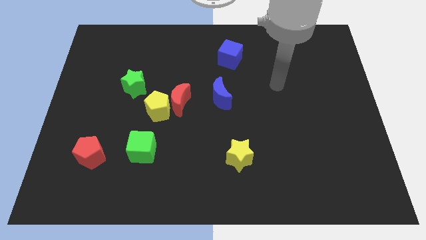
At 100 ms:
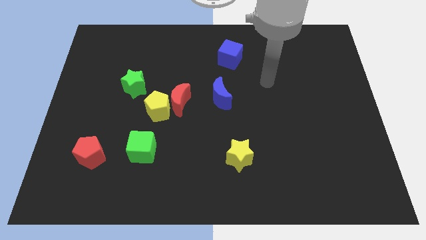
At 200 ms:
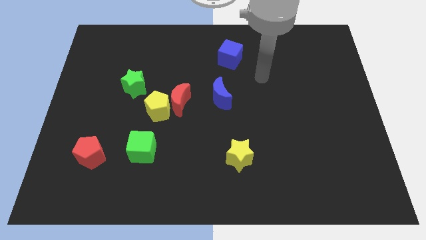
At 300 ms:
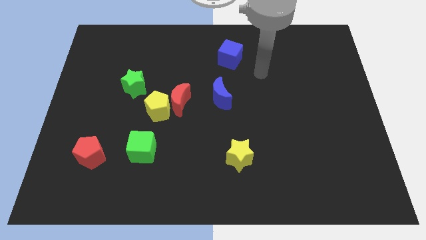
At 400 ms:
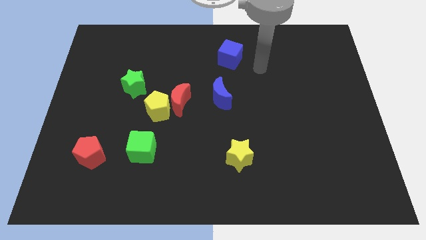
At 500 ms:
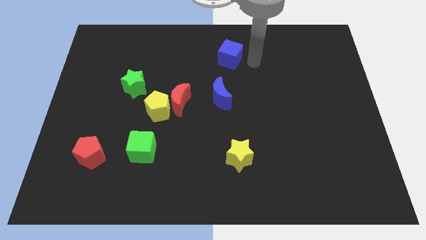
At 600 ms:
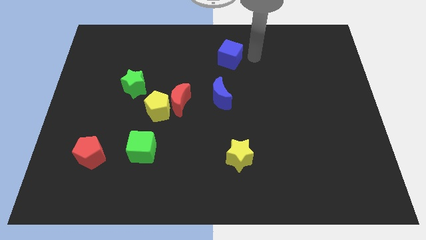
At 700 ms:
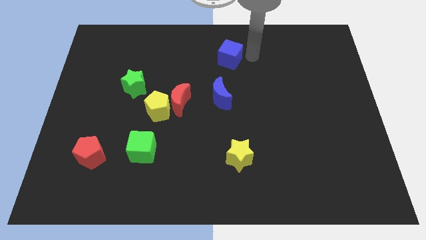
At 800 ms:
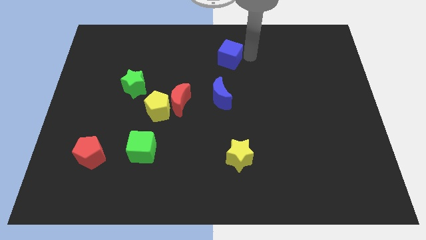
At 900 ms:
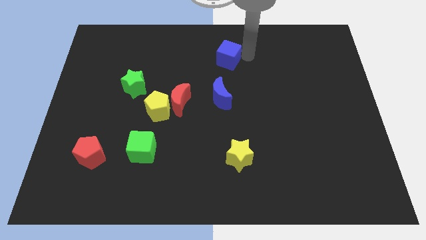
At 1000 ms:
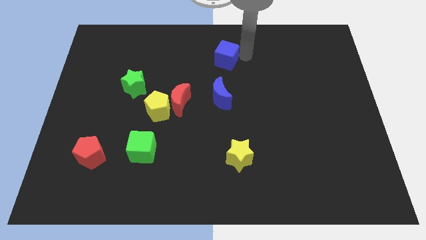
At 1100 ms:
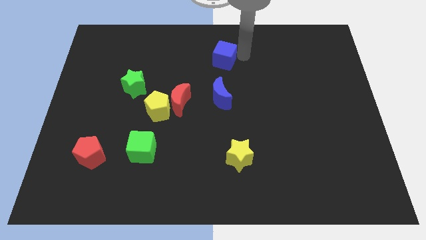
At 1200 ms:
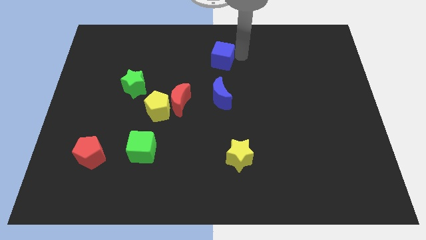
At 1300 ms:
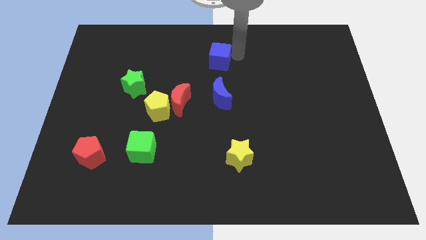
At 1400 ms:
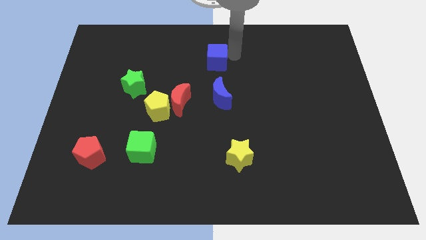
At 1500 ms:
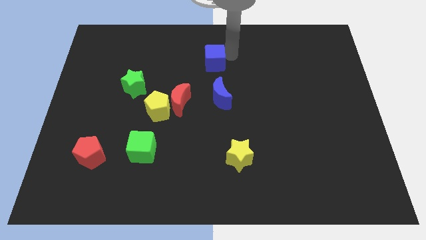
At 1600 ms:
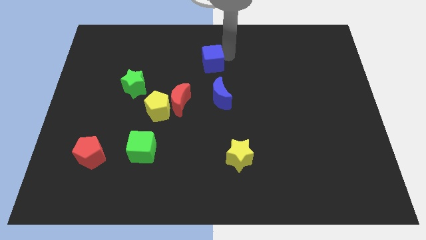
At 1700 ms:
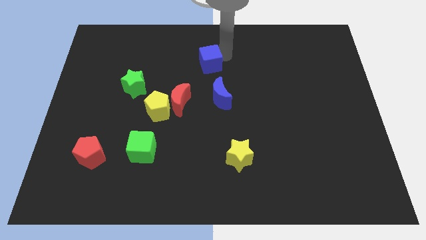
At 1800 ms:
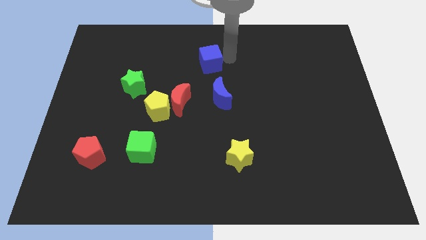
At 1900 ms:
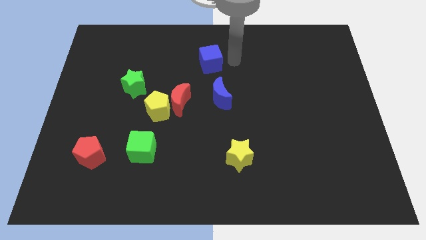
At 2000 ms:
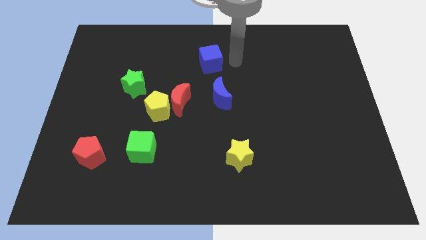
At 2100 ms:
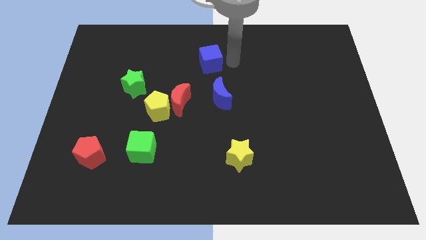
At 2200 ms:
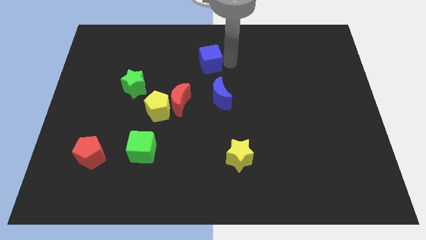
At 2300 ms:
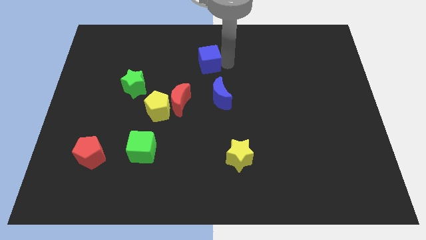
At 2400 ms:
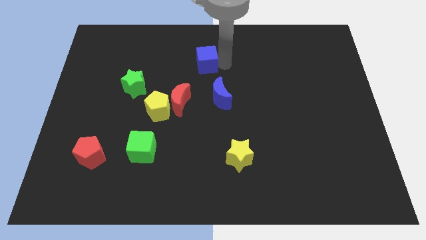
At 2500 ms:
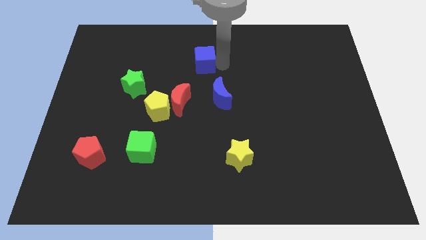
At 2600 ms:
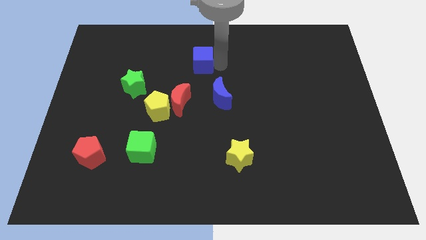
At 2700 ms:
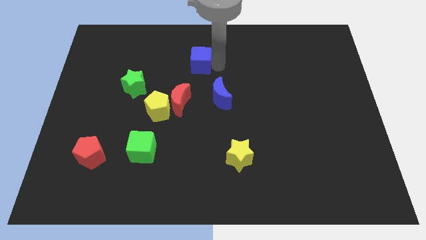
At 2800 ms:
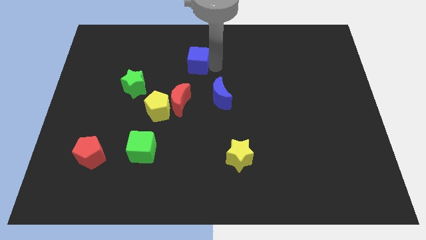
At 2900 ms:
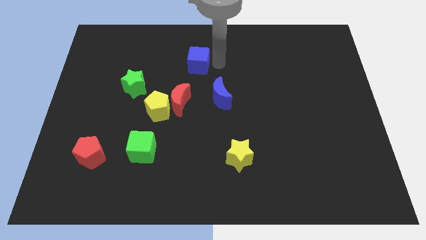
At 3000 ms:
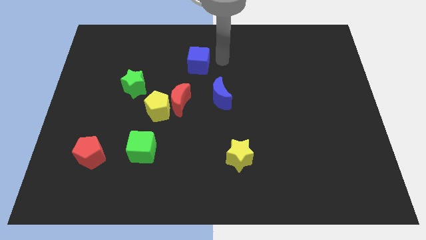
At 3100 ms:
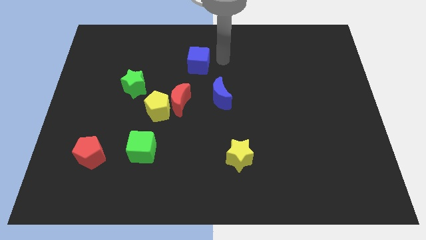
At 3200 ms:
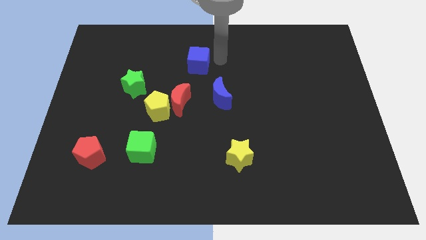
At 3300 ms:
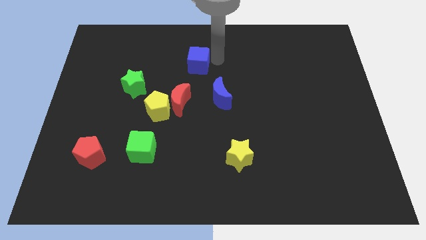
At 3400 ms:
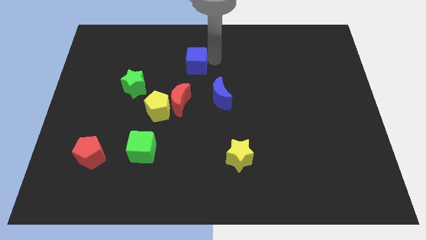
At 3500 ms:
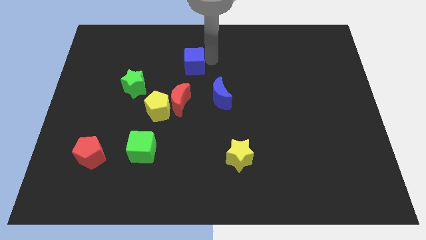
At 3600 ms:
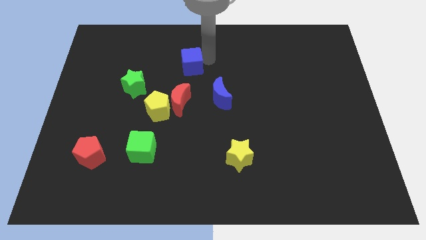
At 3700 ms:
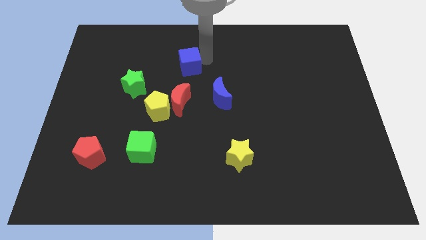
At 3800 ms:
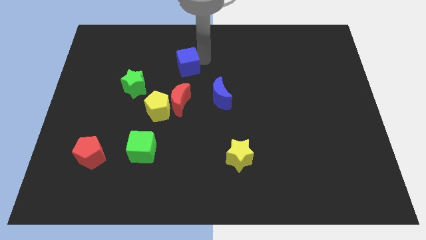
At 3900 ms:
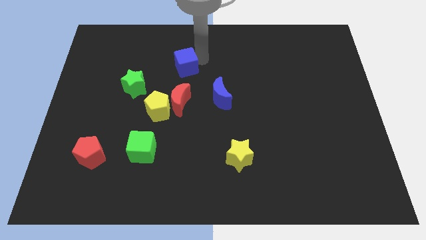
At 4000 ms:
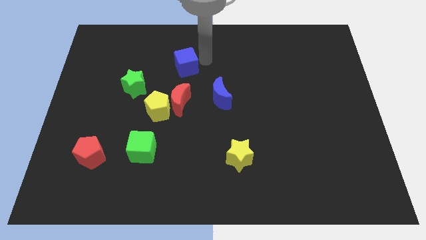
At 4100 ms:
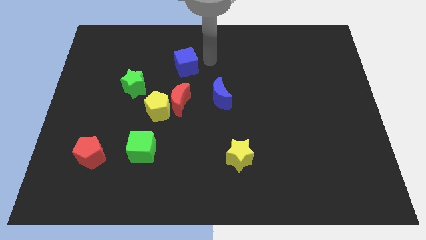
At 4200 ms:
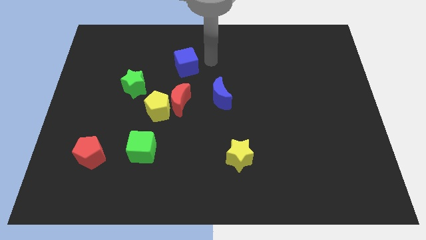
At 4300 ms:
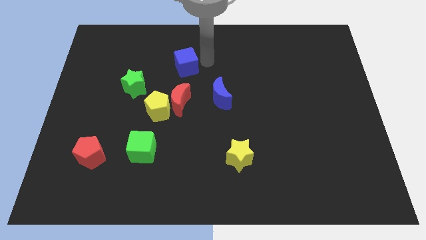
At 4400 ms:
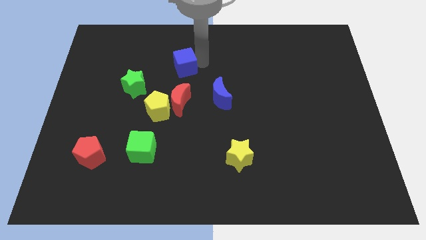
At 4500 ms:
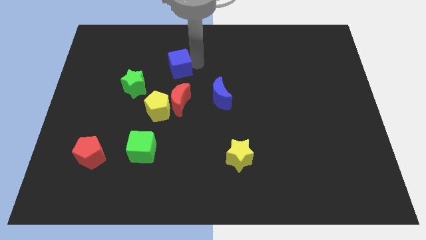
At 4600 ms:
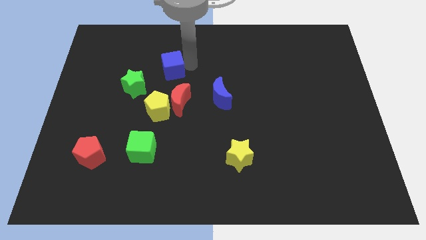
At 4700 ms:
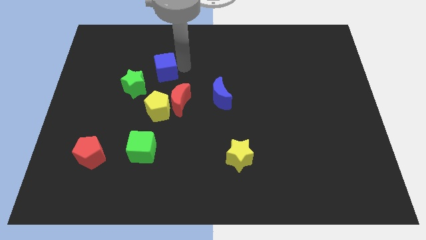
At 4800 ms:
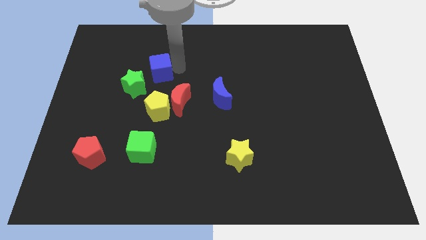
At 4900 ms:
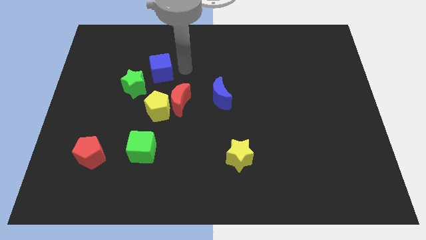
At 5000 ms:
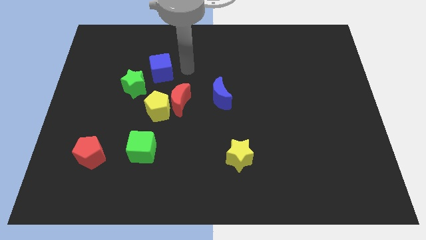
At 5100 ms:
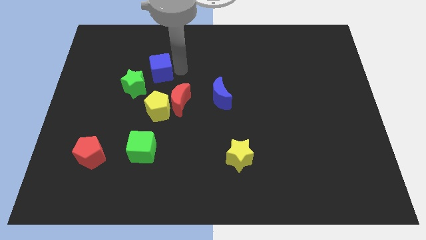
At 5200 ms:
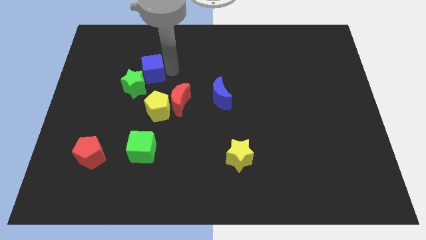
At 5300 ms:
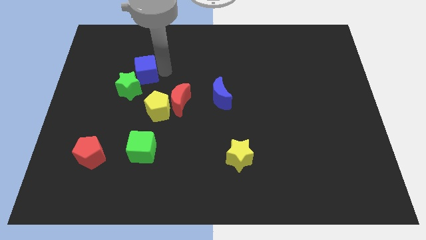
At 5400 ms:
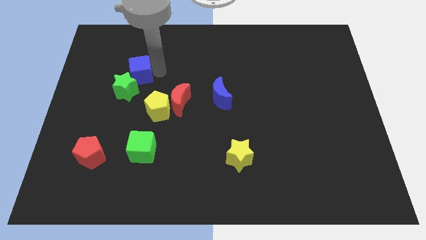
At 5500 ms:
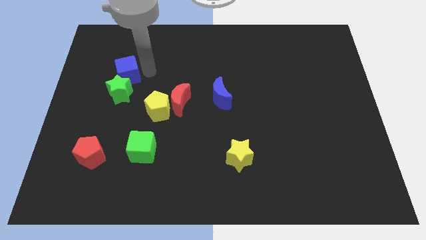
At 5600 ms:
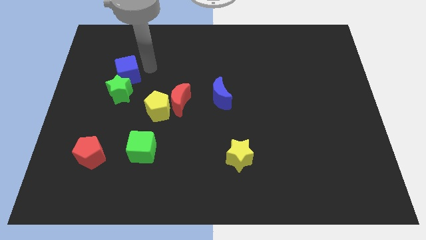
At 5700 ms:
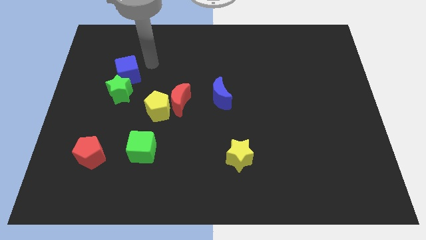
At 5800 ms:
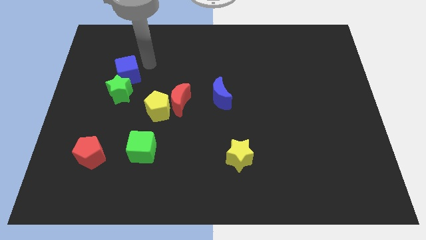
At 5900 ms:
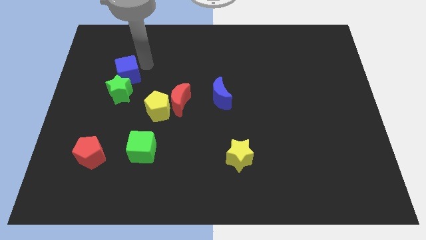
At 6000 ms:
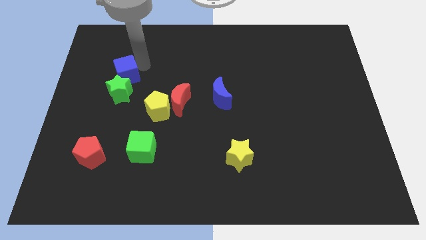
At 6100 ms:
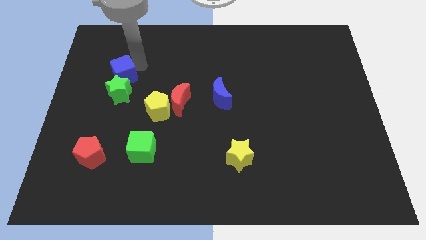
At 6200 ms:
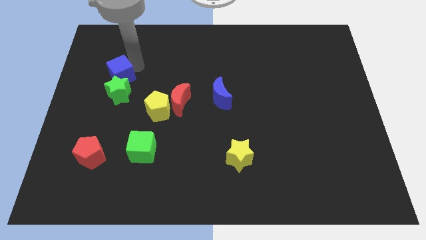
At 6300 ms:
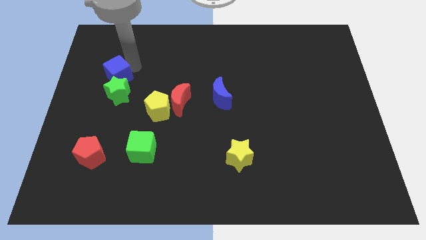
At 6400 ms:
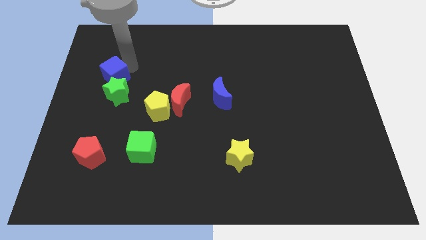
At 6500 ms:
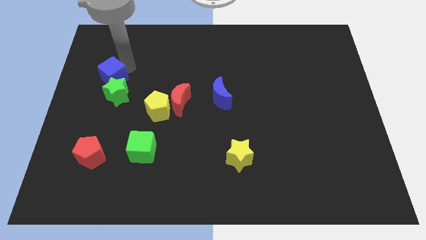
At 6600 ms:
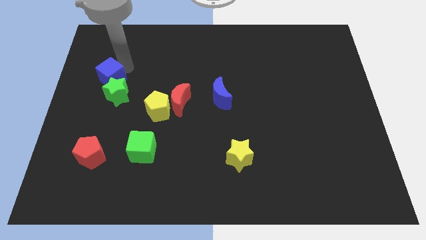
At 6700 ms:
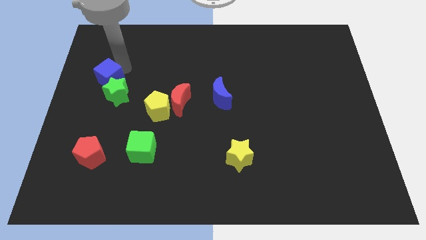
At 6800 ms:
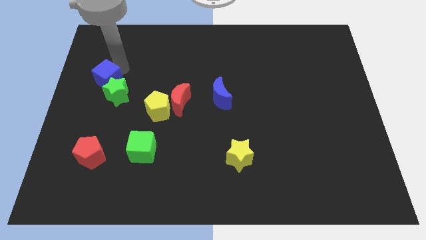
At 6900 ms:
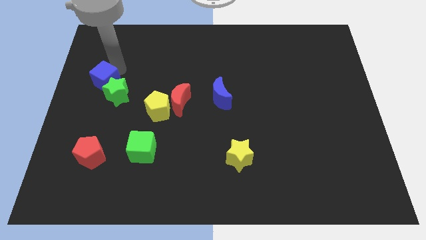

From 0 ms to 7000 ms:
put the blue cube to the left side

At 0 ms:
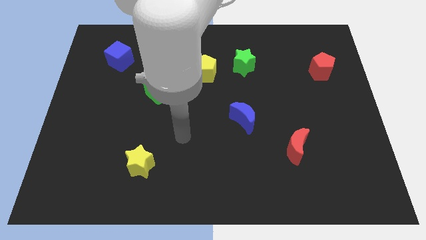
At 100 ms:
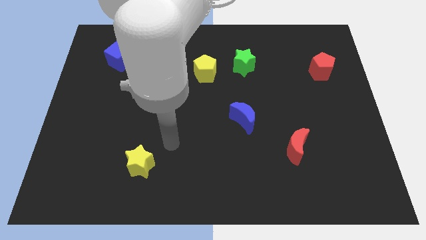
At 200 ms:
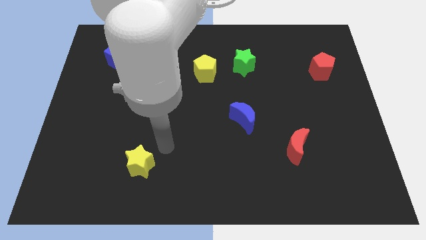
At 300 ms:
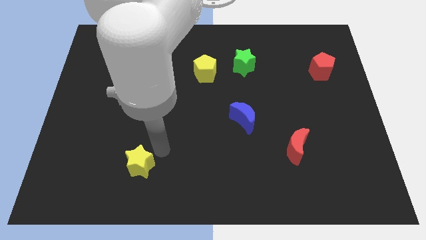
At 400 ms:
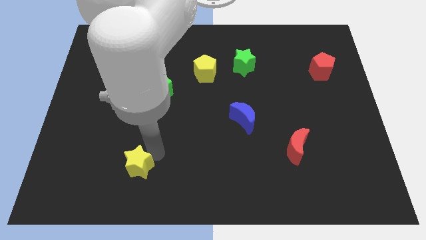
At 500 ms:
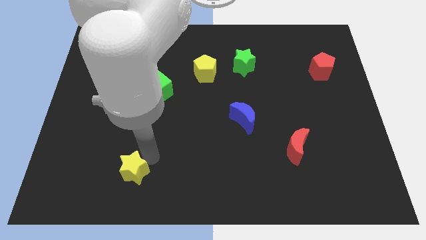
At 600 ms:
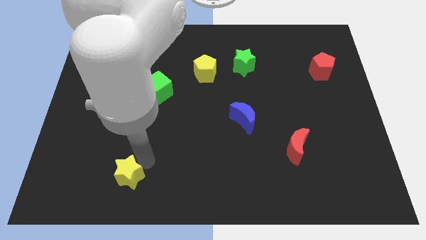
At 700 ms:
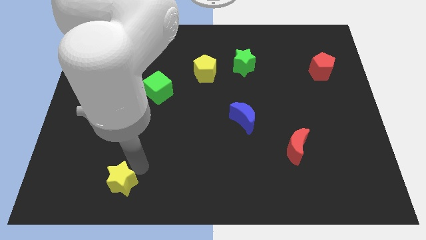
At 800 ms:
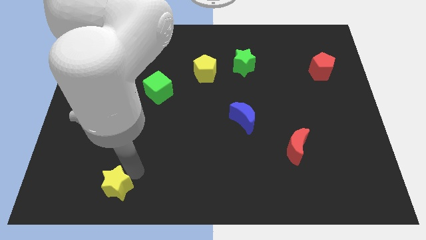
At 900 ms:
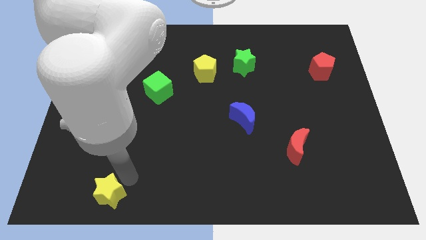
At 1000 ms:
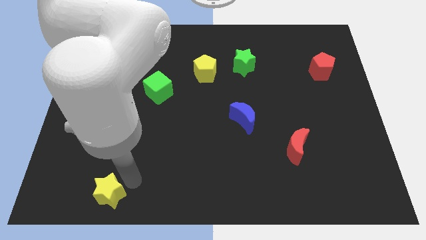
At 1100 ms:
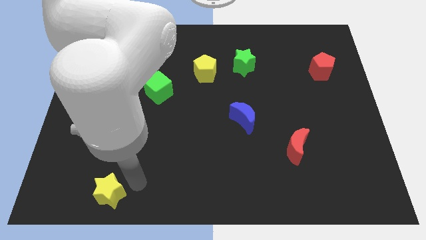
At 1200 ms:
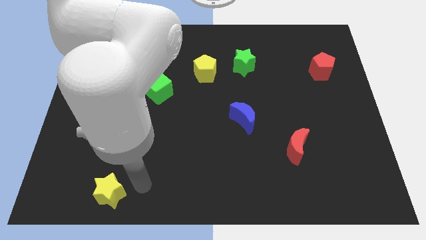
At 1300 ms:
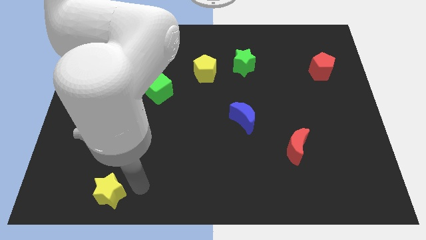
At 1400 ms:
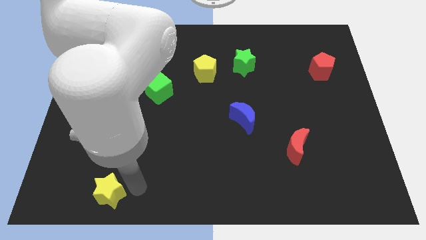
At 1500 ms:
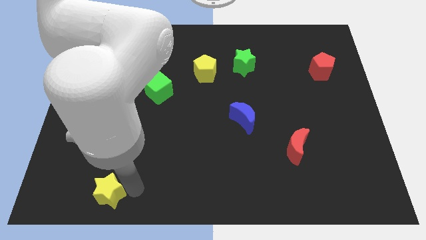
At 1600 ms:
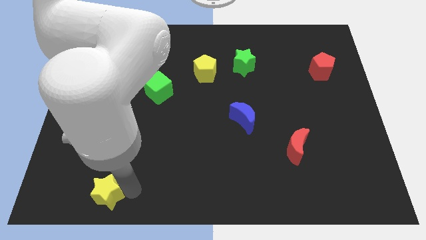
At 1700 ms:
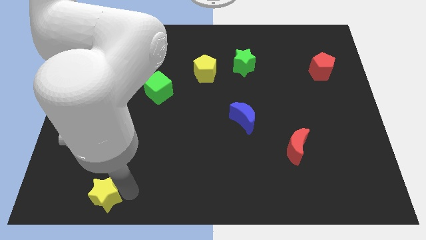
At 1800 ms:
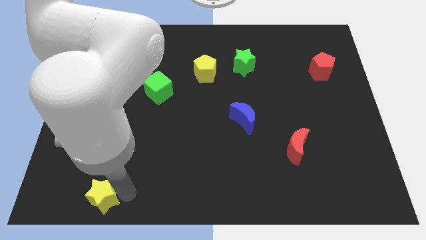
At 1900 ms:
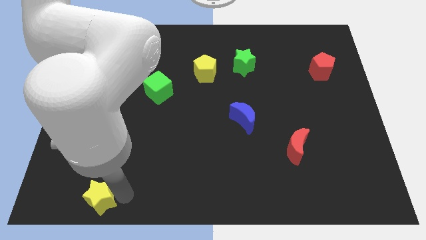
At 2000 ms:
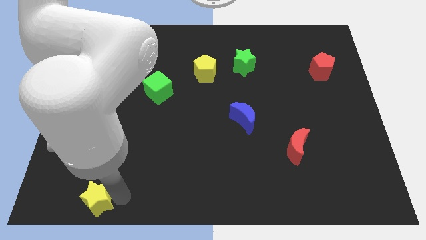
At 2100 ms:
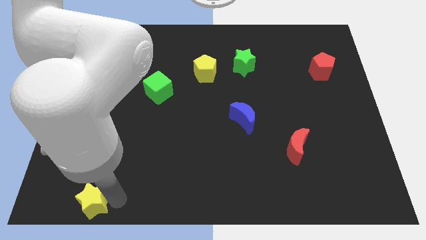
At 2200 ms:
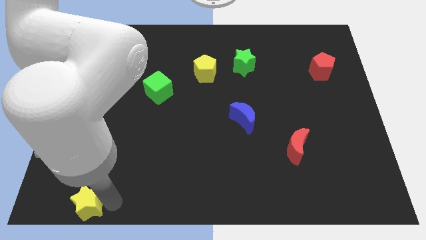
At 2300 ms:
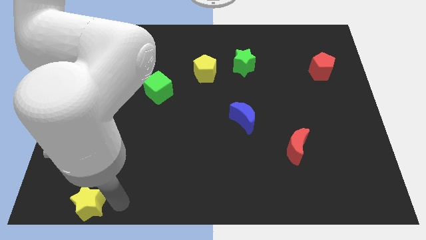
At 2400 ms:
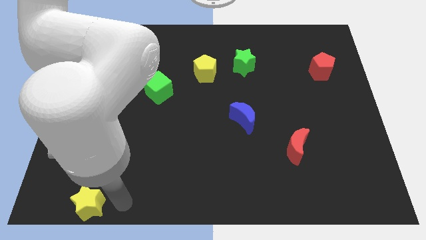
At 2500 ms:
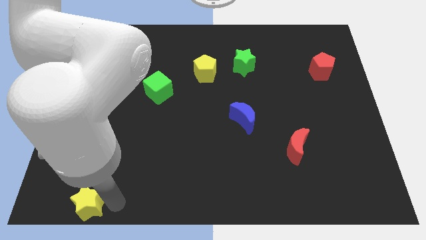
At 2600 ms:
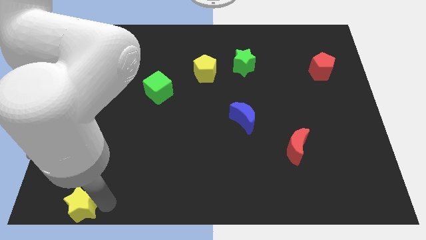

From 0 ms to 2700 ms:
push the yellow star to the bottom left
